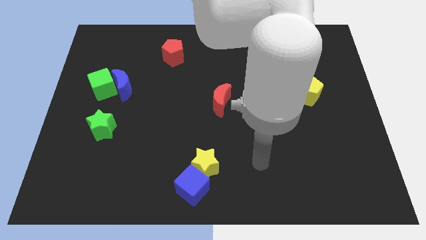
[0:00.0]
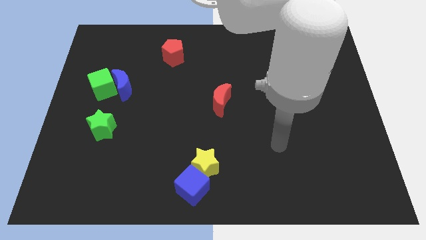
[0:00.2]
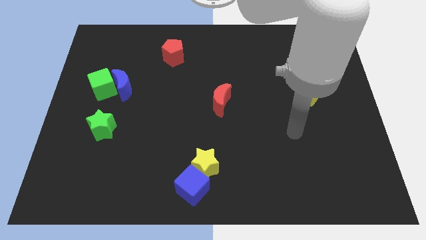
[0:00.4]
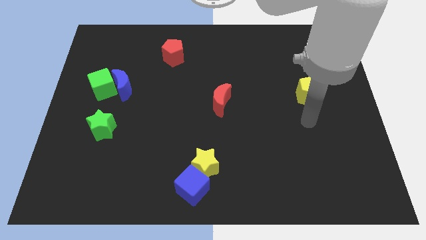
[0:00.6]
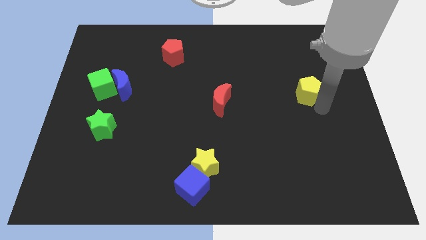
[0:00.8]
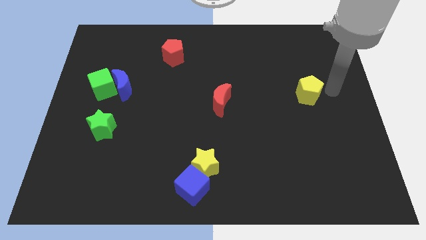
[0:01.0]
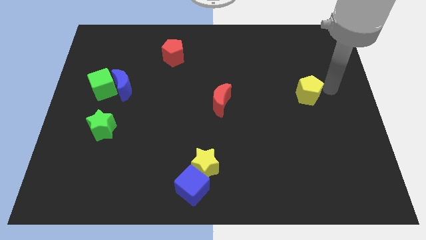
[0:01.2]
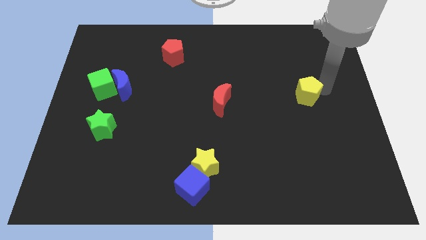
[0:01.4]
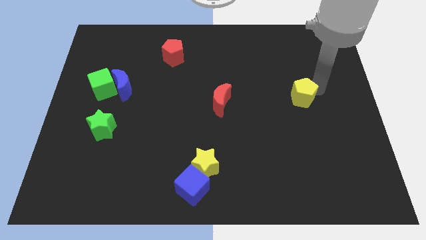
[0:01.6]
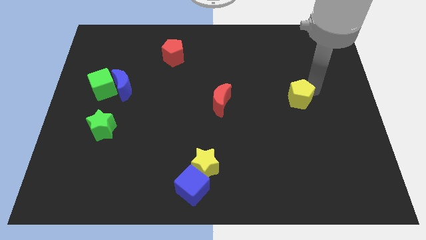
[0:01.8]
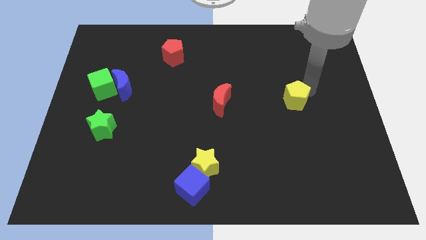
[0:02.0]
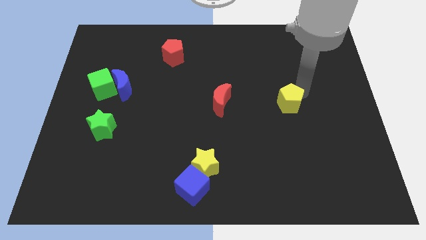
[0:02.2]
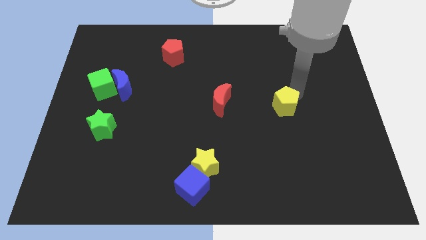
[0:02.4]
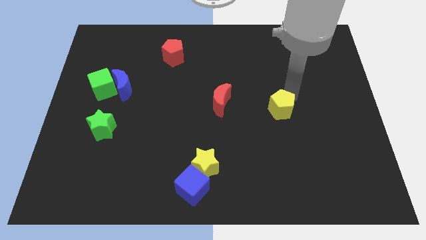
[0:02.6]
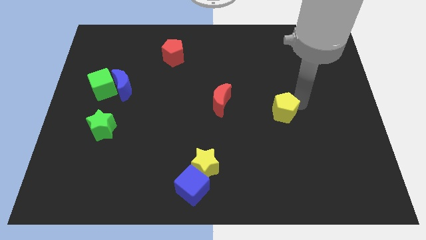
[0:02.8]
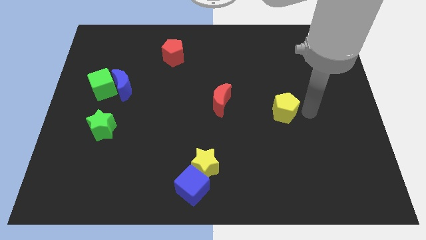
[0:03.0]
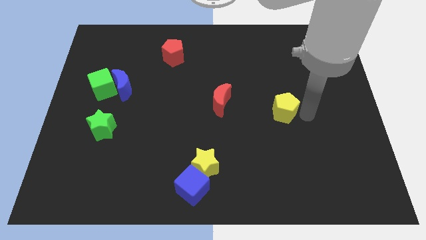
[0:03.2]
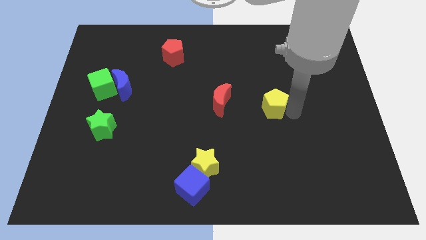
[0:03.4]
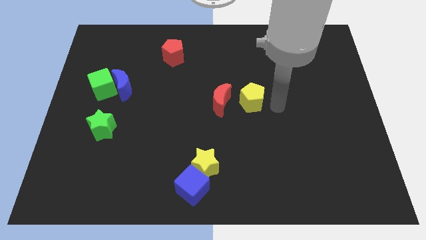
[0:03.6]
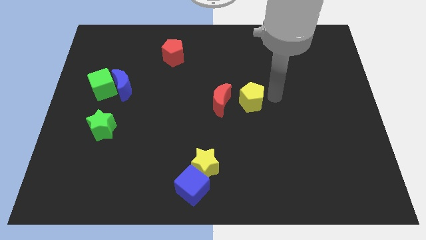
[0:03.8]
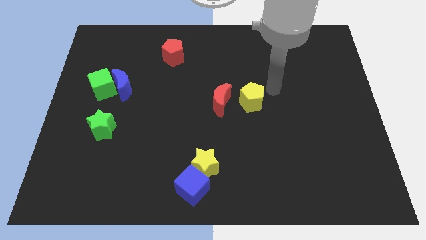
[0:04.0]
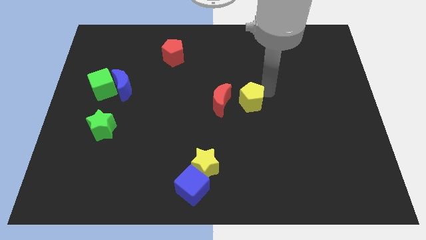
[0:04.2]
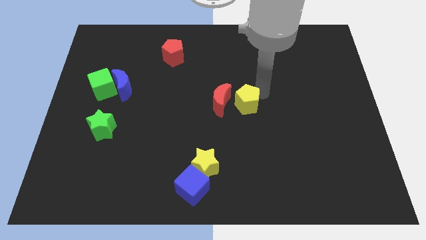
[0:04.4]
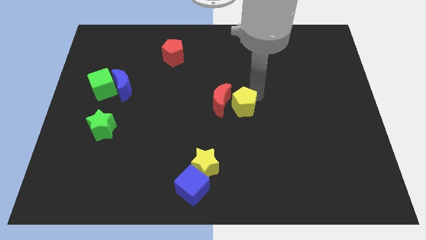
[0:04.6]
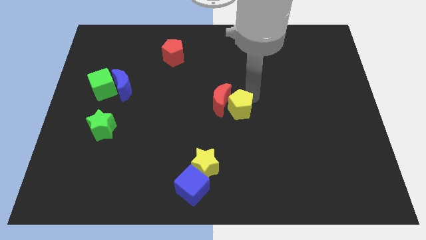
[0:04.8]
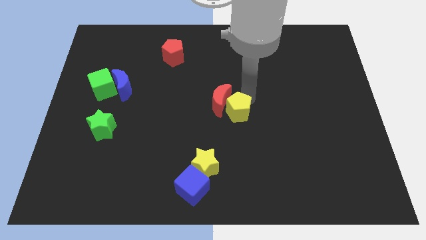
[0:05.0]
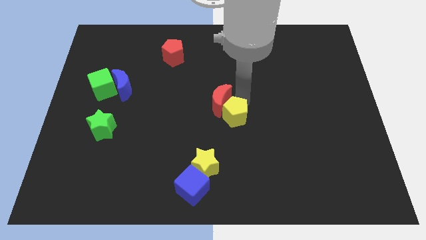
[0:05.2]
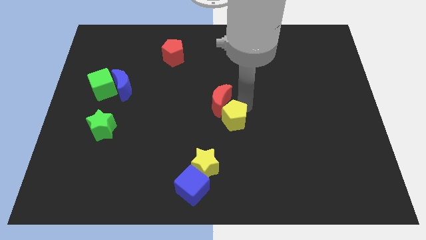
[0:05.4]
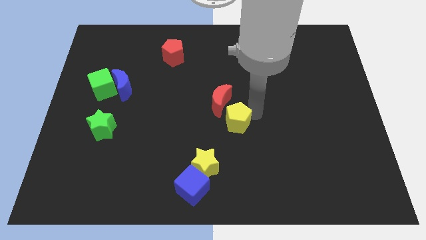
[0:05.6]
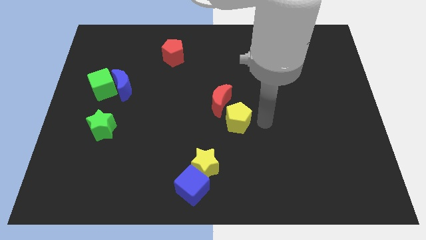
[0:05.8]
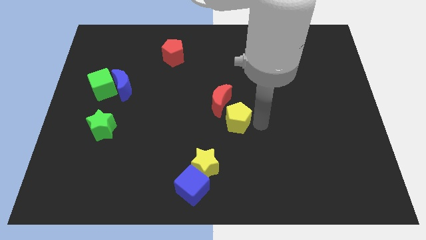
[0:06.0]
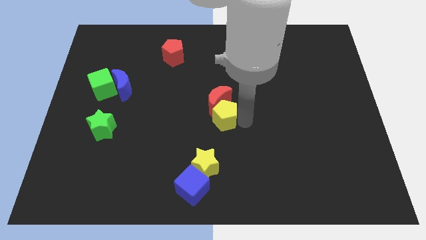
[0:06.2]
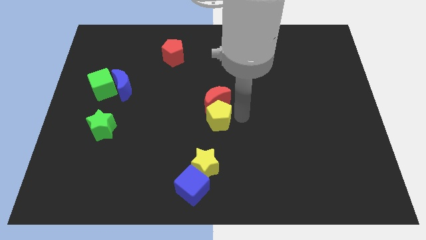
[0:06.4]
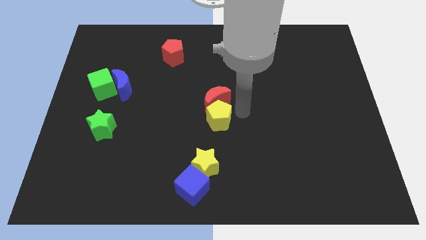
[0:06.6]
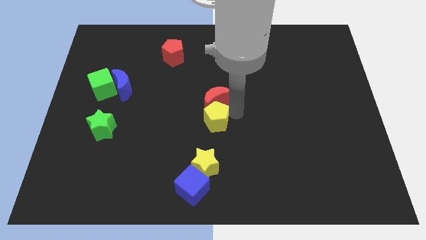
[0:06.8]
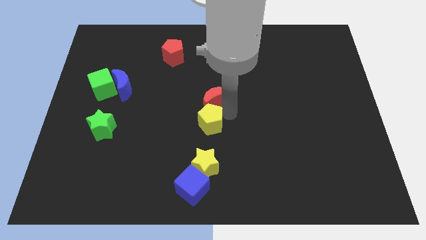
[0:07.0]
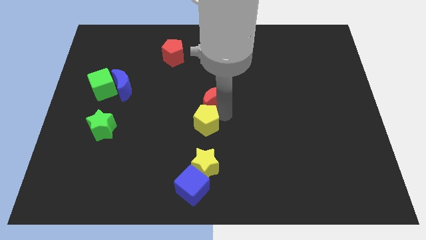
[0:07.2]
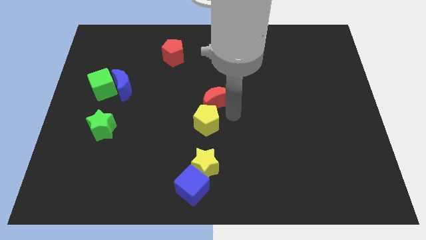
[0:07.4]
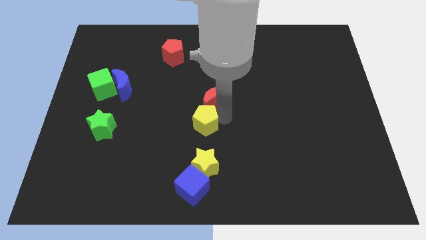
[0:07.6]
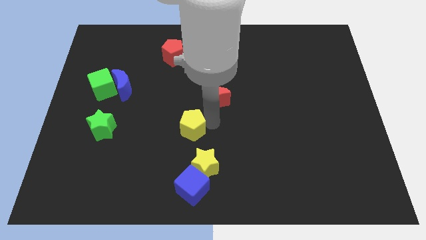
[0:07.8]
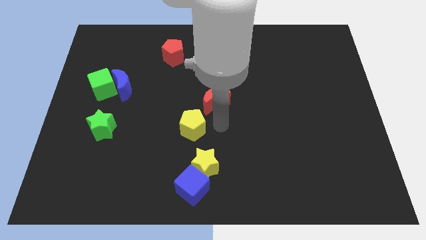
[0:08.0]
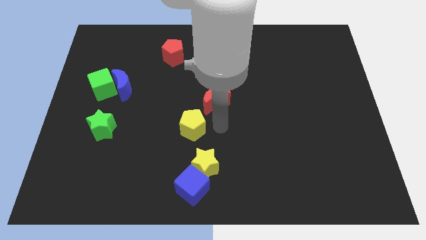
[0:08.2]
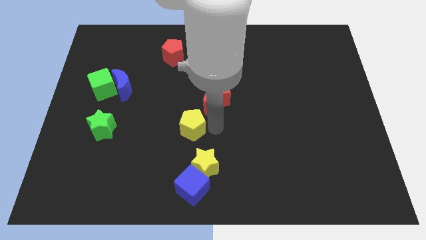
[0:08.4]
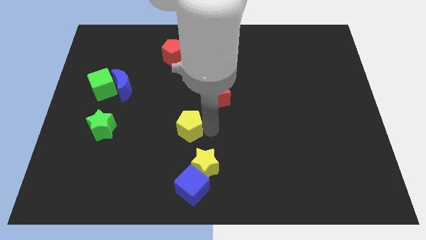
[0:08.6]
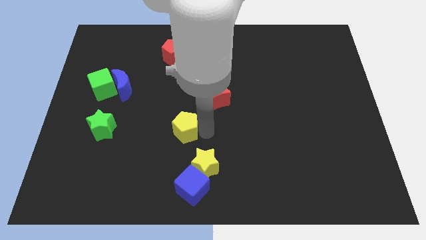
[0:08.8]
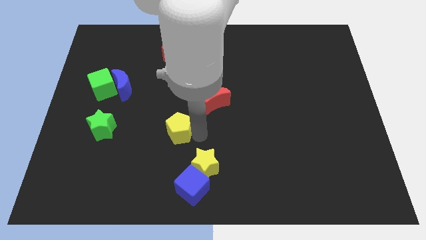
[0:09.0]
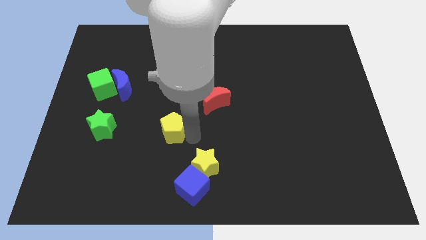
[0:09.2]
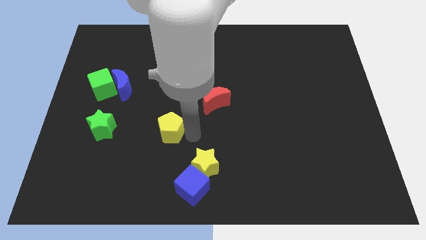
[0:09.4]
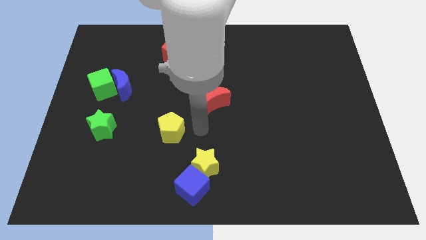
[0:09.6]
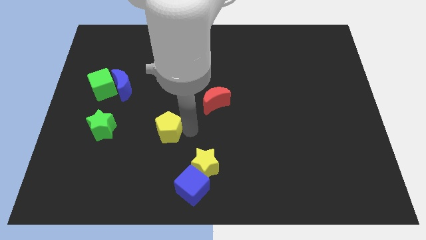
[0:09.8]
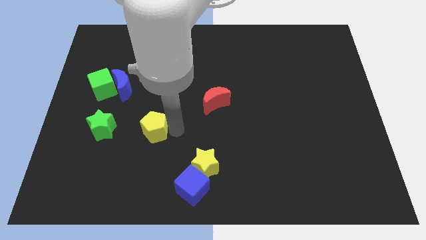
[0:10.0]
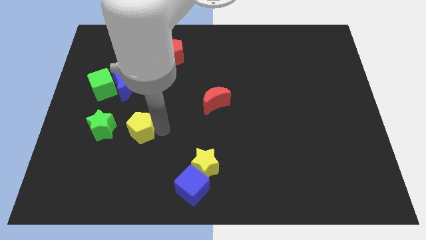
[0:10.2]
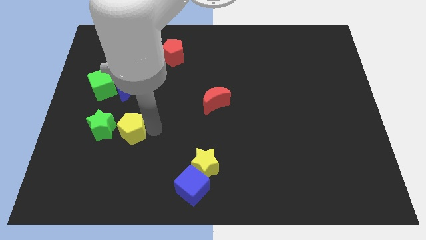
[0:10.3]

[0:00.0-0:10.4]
move the yellow pentagon below the blue moon

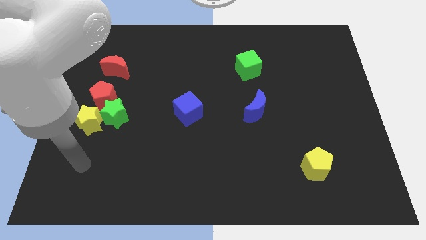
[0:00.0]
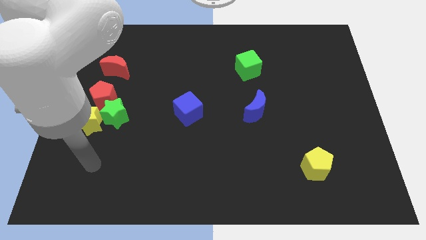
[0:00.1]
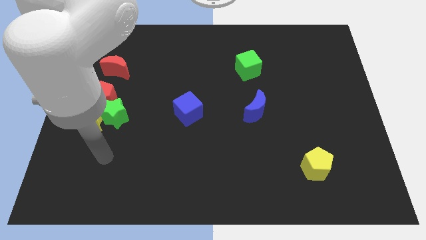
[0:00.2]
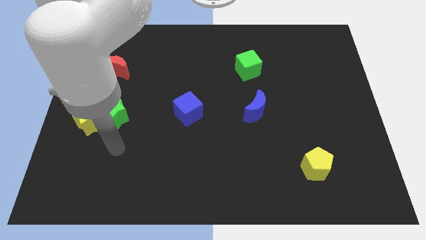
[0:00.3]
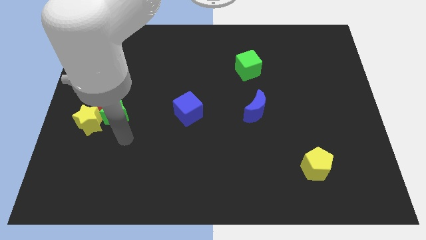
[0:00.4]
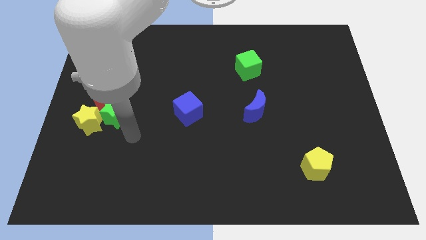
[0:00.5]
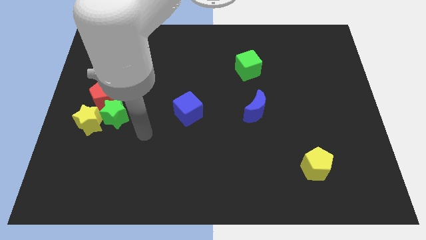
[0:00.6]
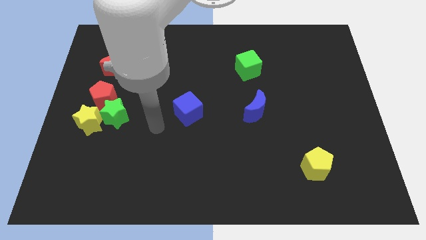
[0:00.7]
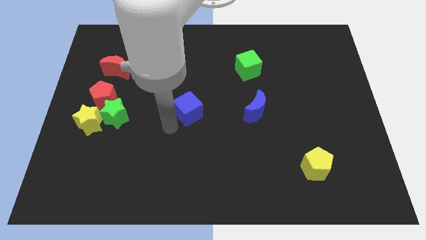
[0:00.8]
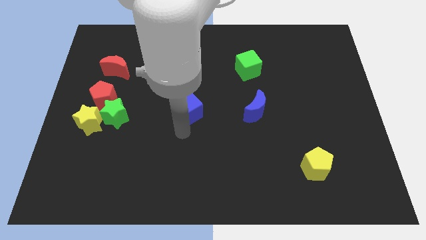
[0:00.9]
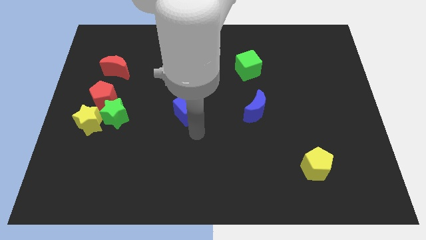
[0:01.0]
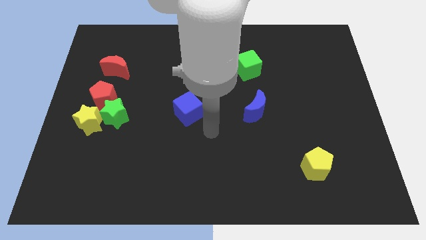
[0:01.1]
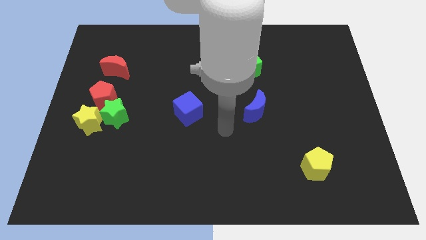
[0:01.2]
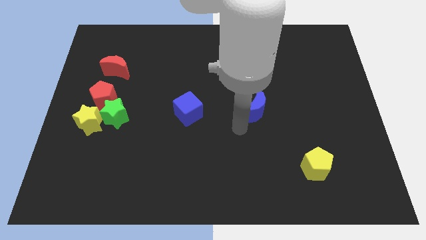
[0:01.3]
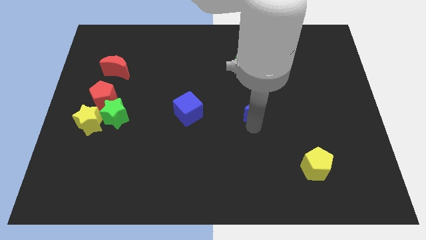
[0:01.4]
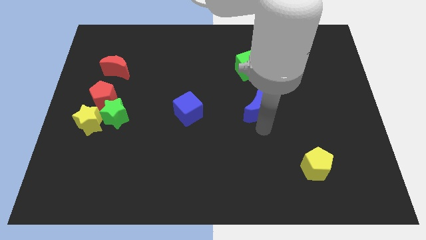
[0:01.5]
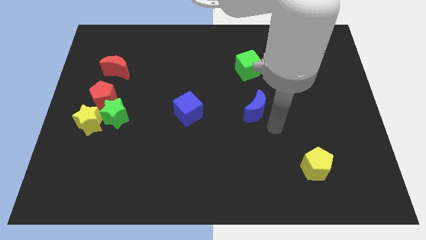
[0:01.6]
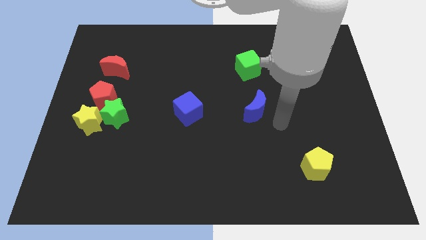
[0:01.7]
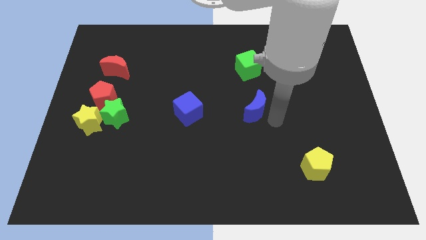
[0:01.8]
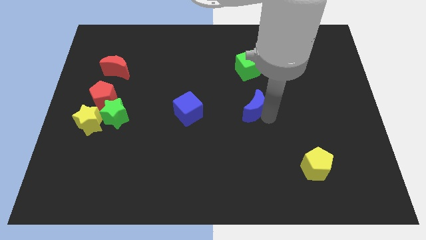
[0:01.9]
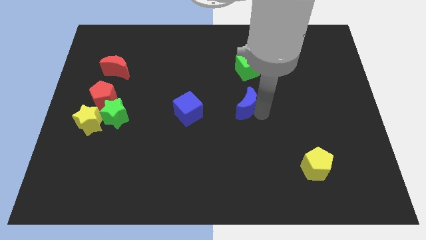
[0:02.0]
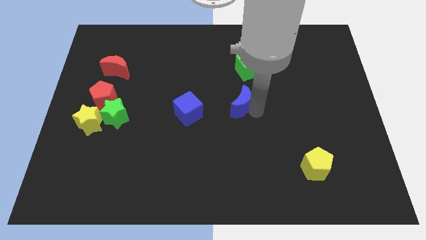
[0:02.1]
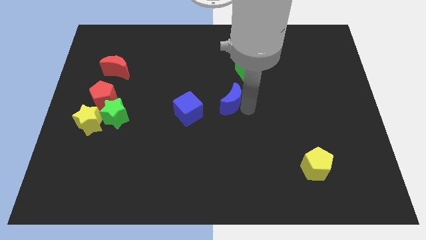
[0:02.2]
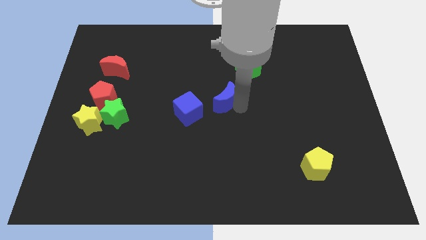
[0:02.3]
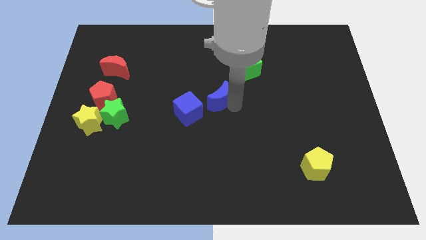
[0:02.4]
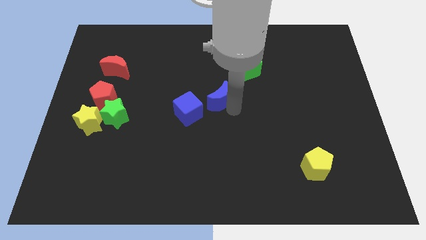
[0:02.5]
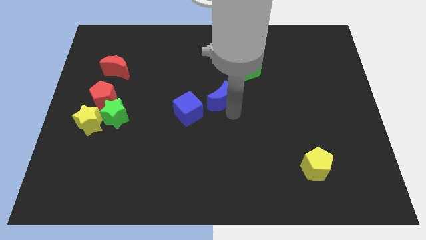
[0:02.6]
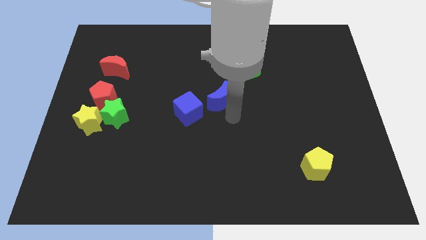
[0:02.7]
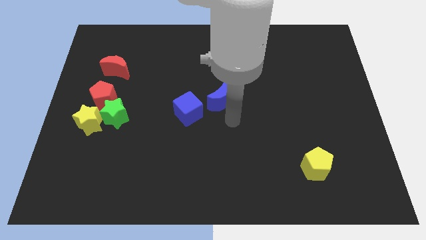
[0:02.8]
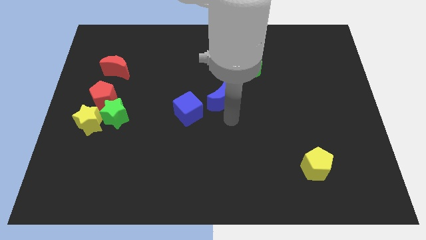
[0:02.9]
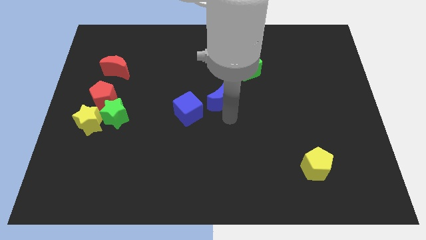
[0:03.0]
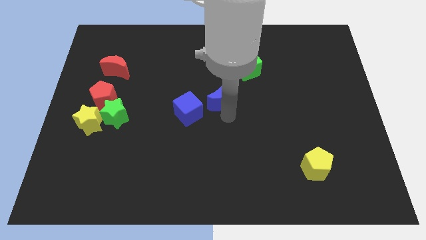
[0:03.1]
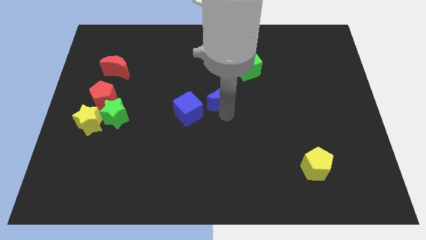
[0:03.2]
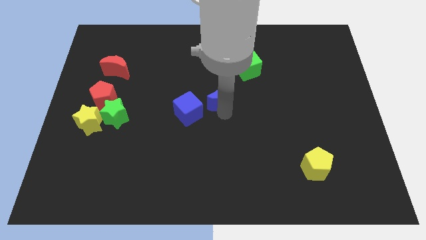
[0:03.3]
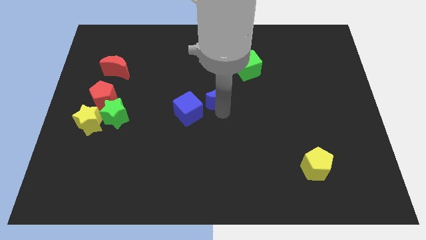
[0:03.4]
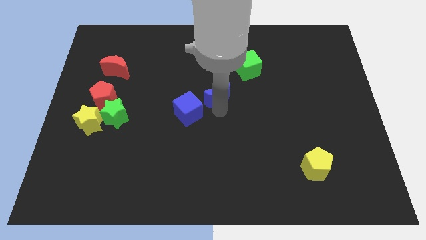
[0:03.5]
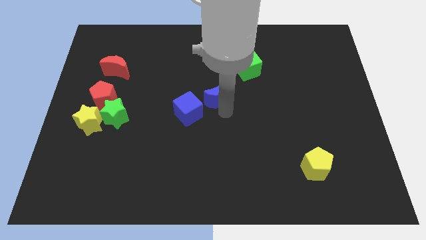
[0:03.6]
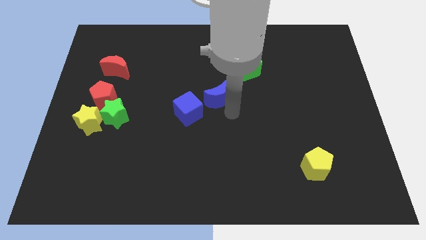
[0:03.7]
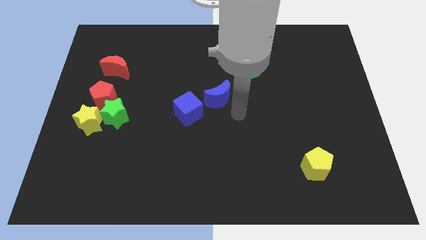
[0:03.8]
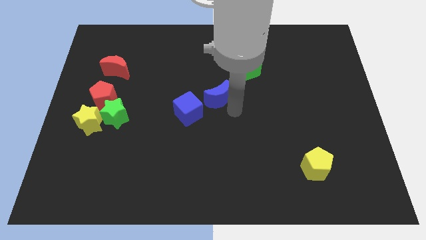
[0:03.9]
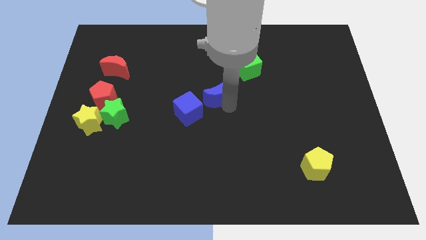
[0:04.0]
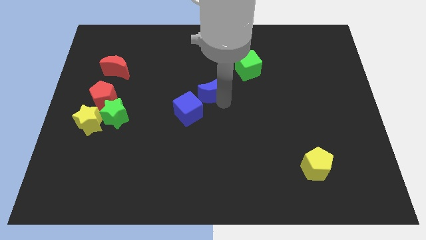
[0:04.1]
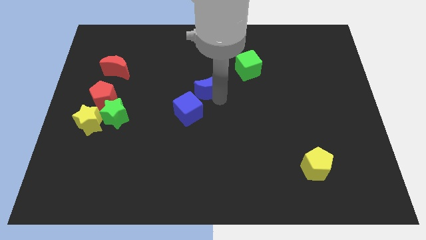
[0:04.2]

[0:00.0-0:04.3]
move the blue moon to the top side of the blue cube
